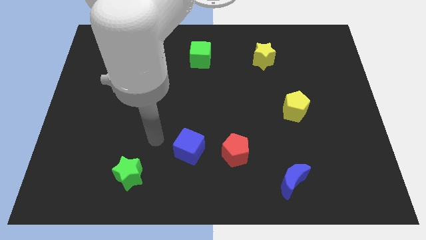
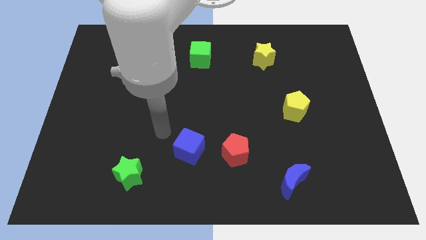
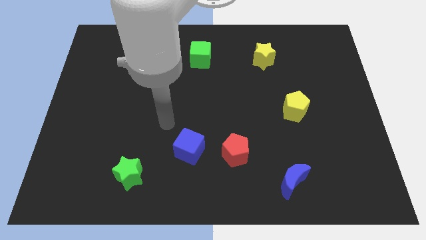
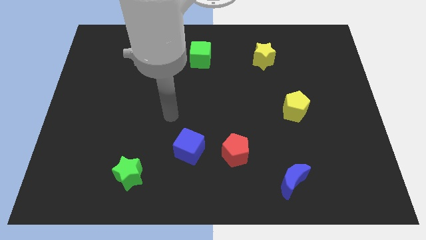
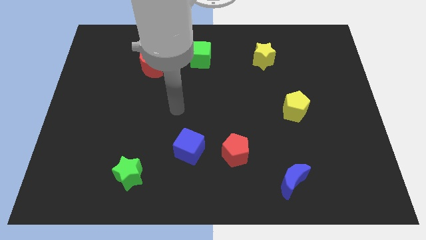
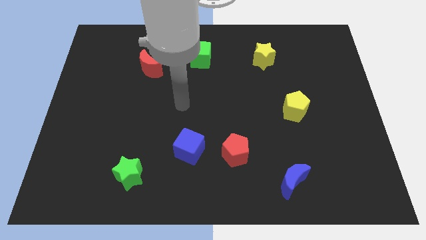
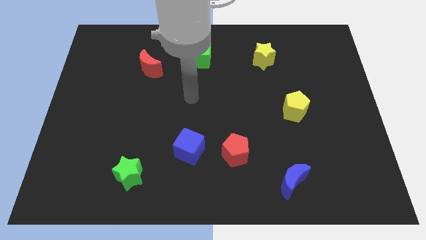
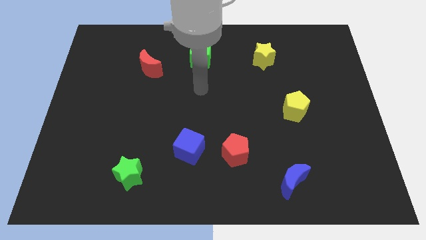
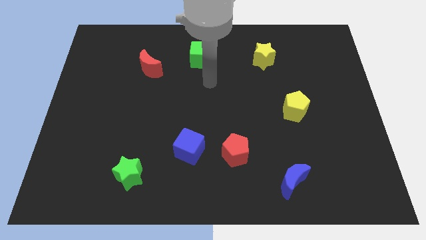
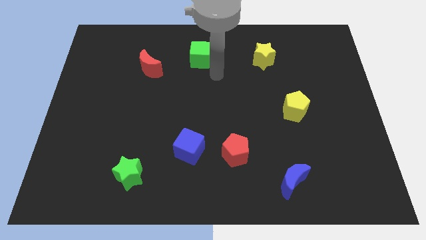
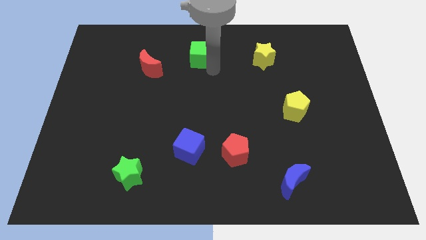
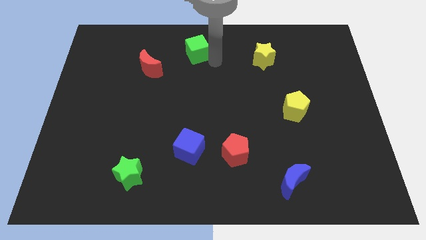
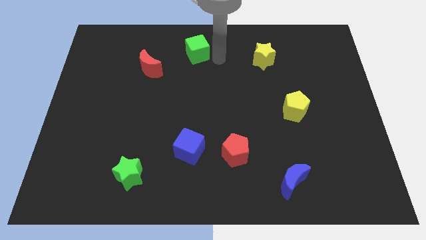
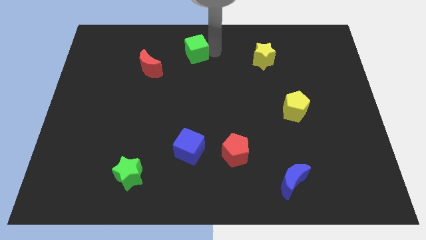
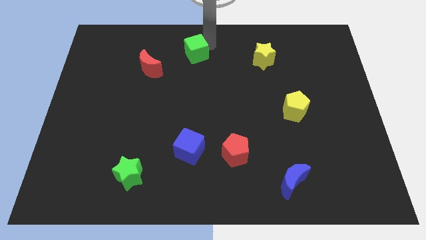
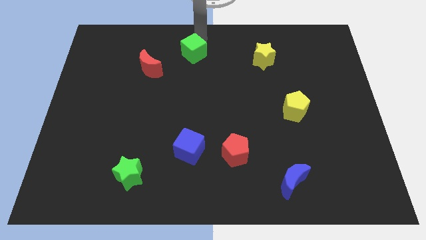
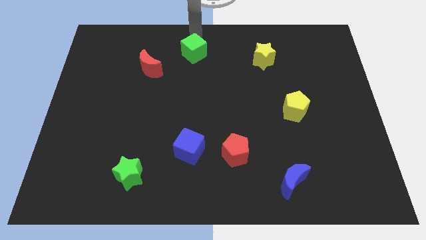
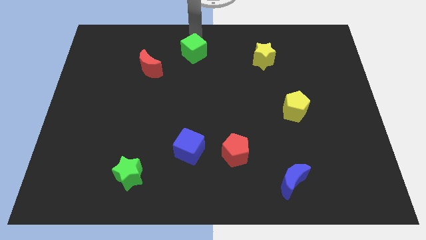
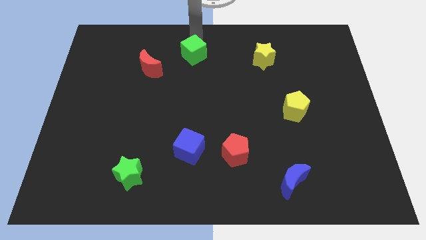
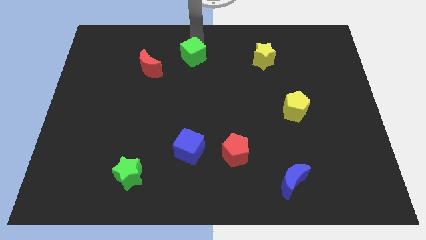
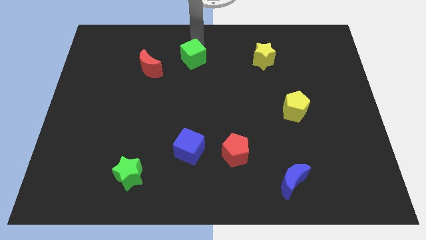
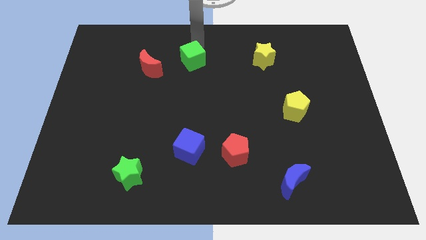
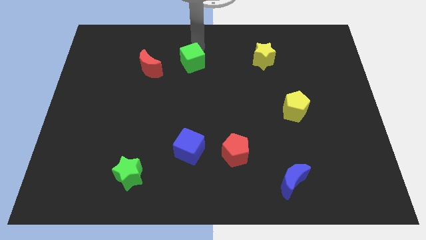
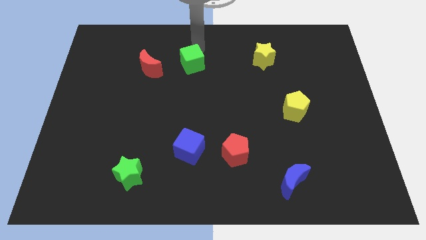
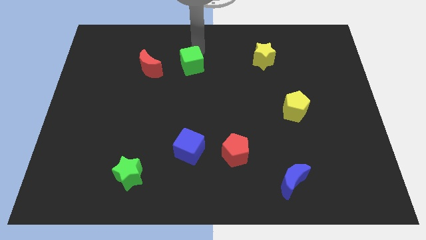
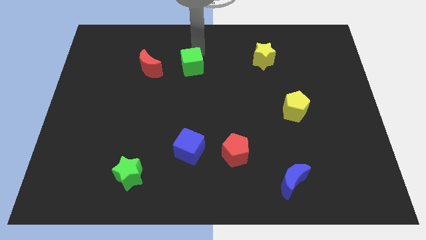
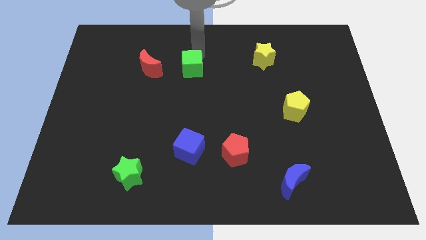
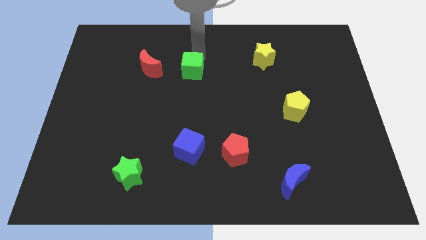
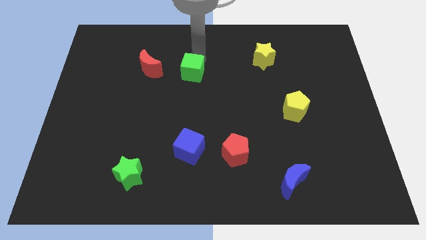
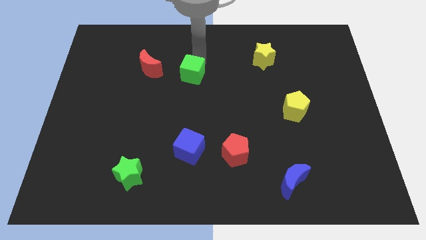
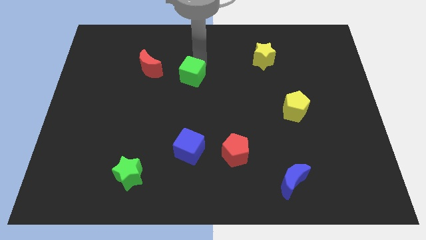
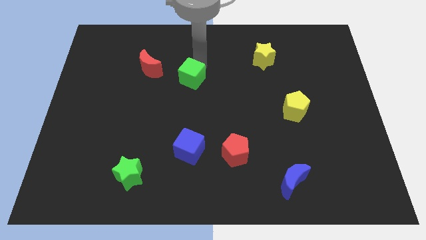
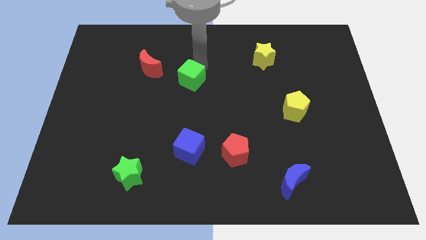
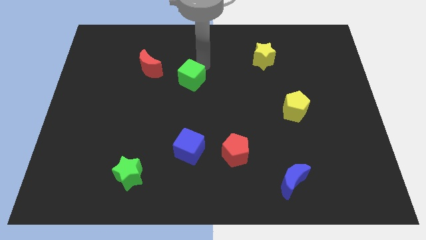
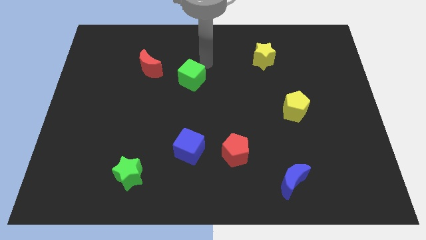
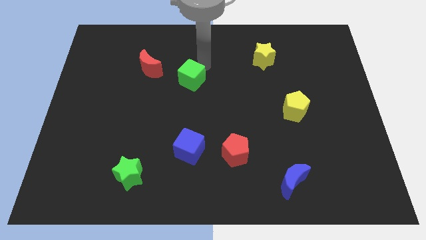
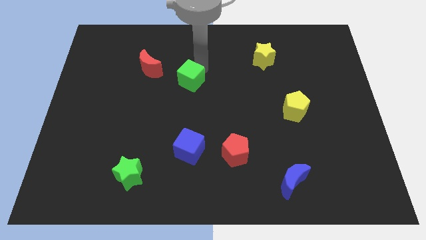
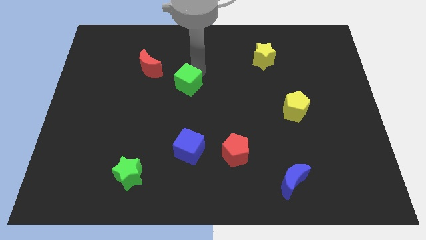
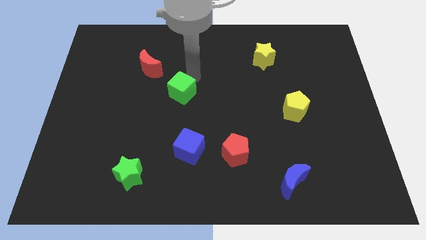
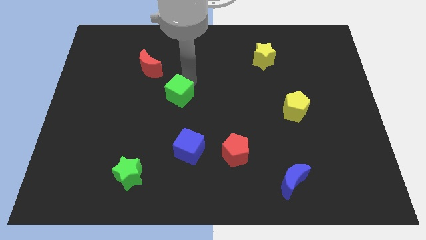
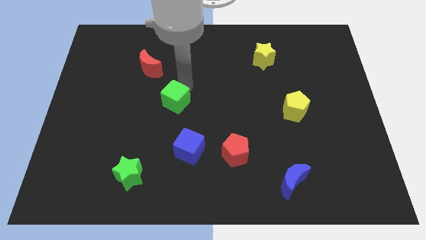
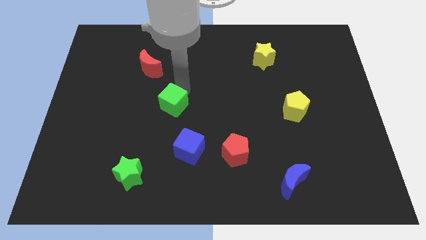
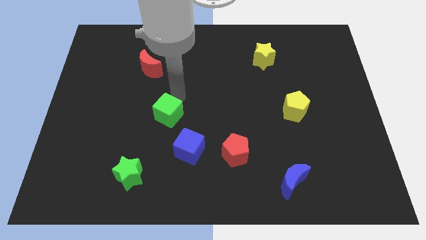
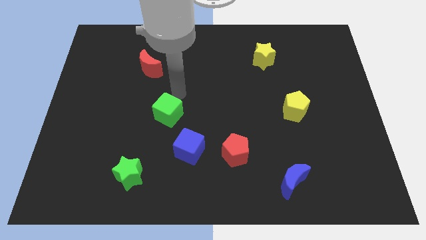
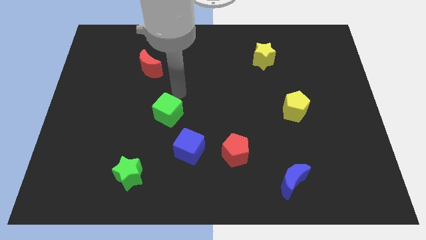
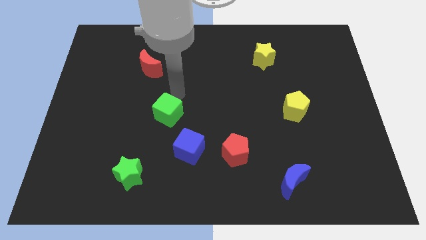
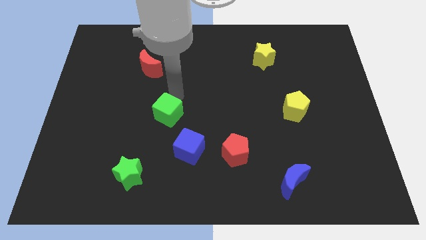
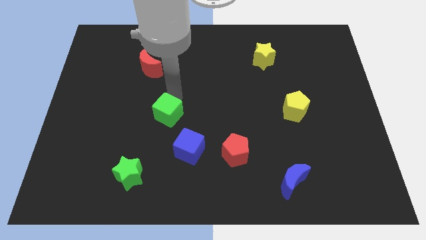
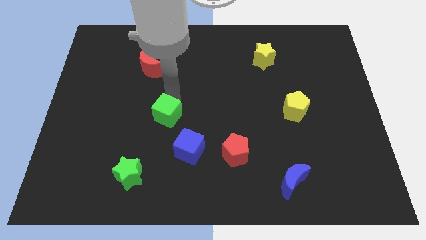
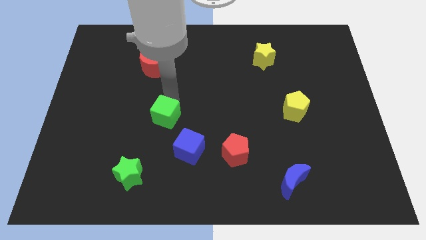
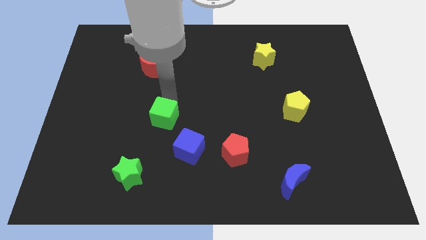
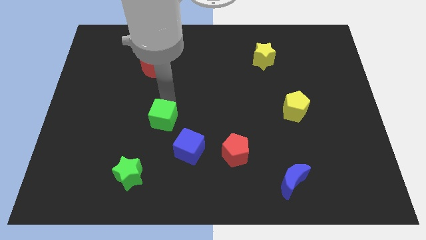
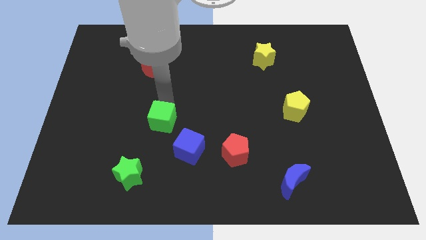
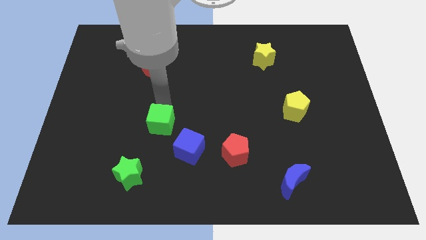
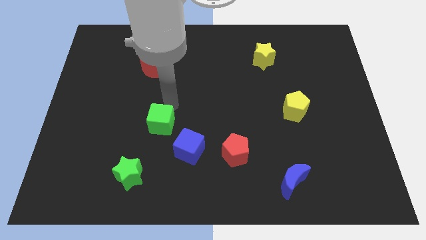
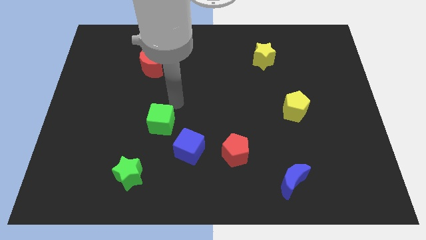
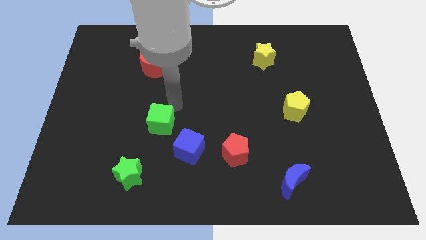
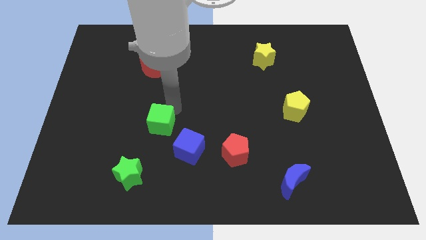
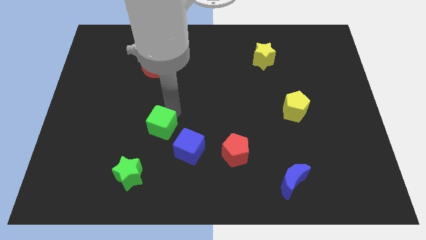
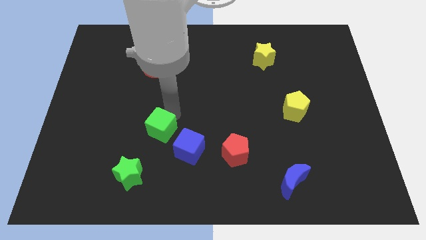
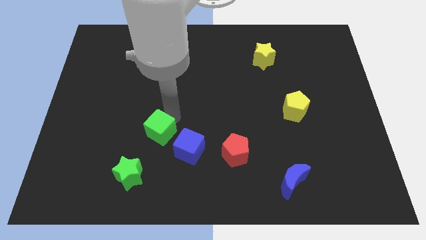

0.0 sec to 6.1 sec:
put the green cube to the left side of the blue cube

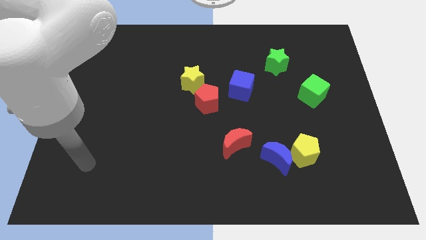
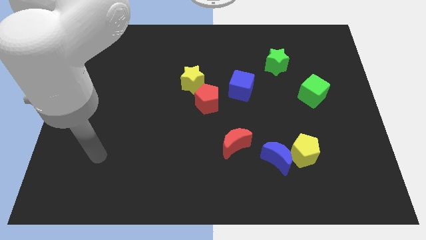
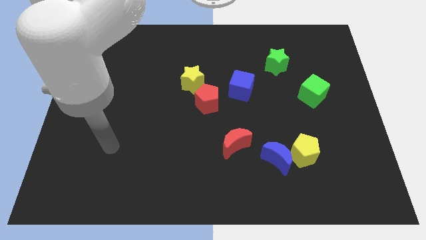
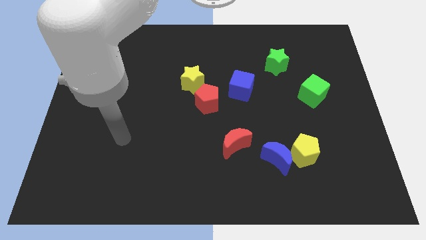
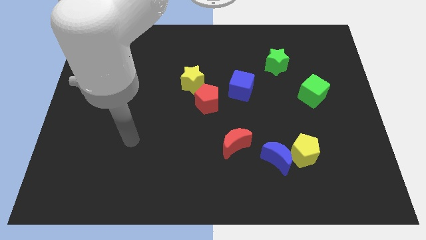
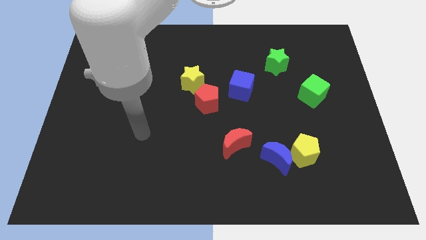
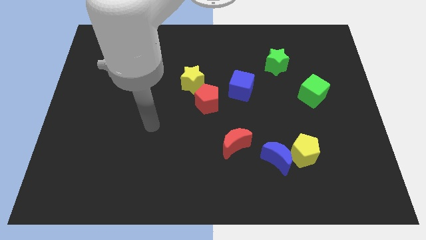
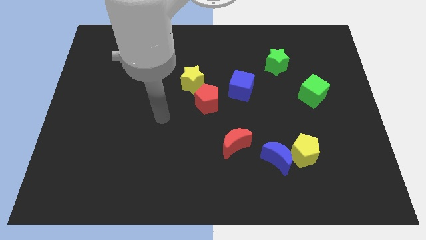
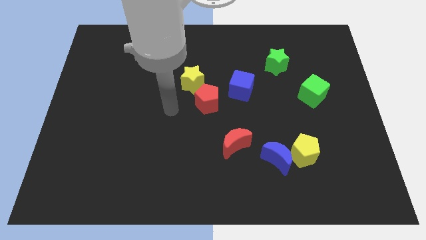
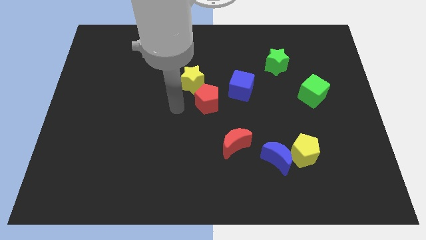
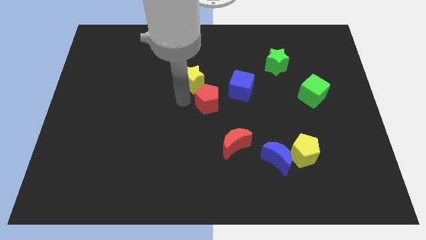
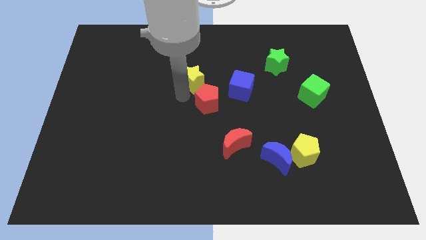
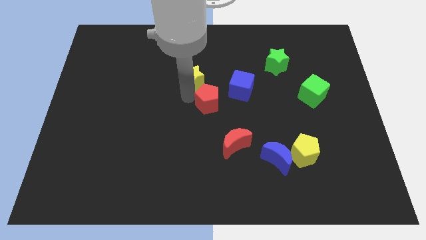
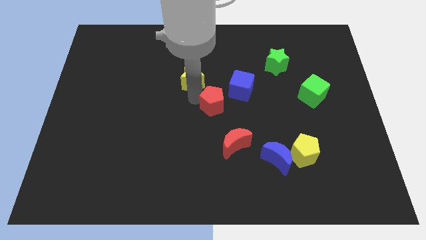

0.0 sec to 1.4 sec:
push the red pentagon above the red moon
